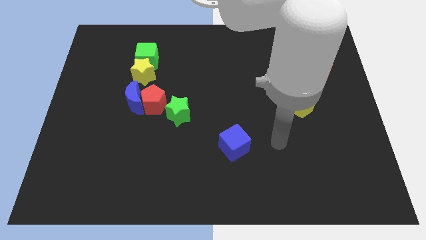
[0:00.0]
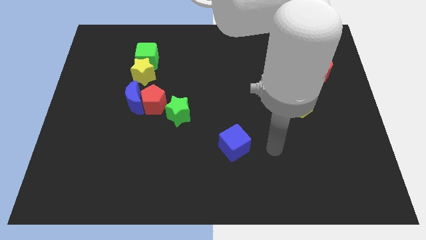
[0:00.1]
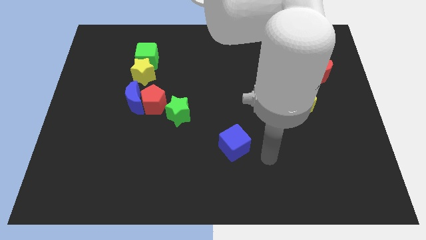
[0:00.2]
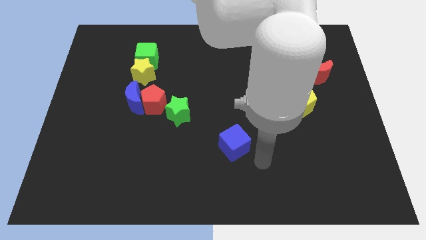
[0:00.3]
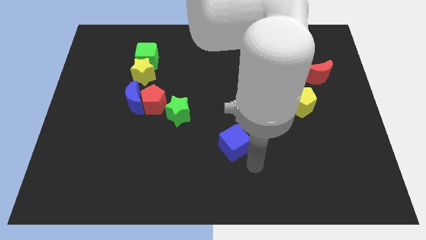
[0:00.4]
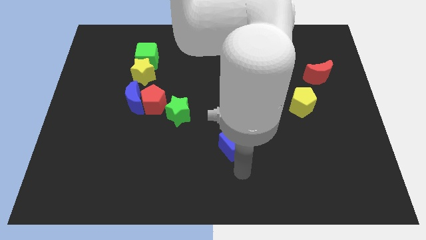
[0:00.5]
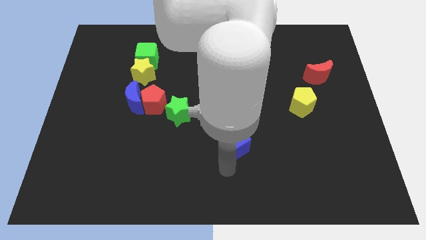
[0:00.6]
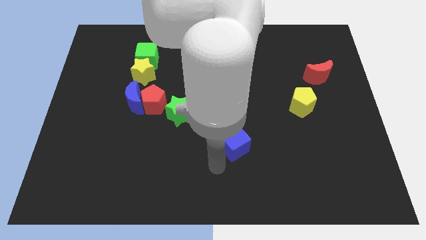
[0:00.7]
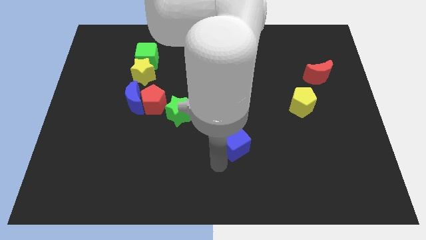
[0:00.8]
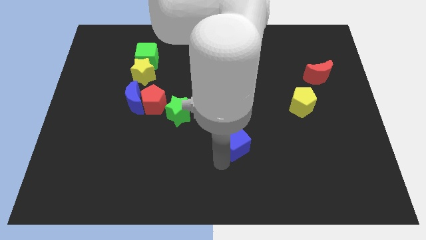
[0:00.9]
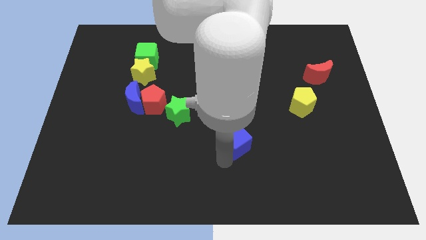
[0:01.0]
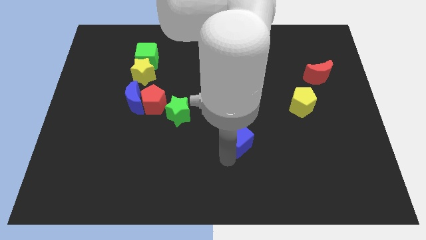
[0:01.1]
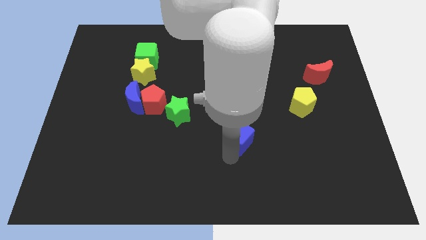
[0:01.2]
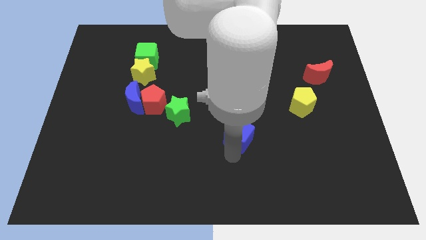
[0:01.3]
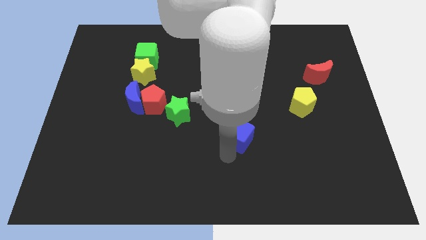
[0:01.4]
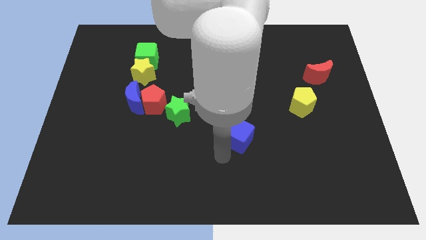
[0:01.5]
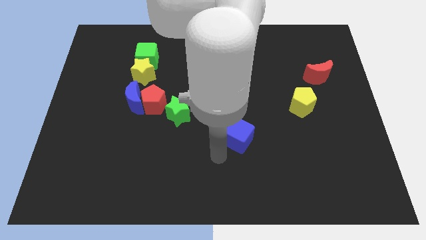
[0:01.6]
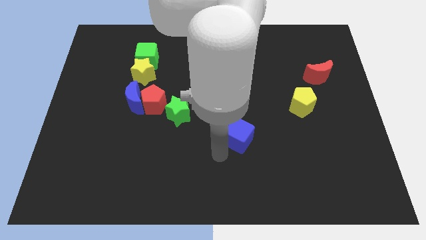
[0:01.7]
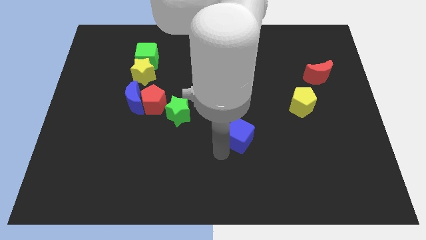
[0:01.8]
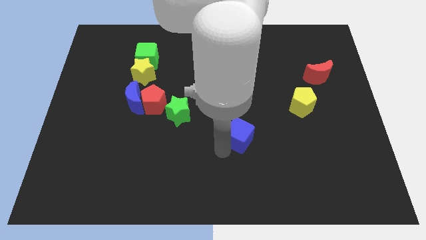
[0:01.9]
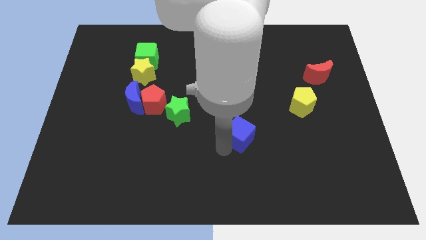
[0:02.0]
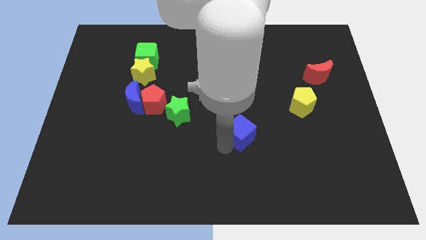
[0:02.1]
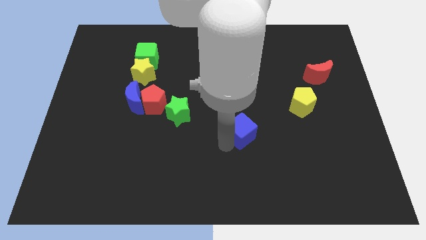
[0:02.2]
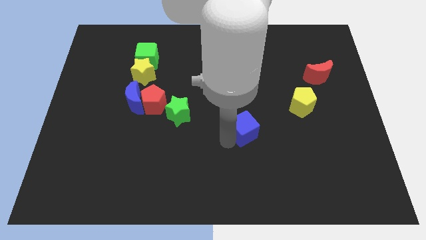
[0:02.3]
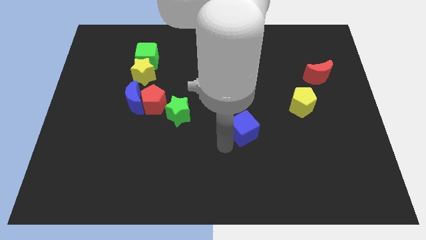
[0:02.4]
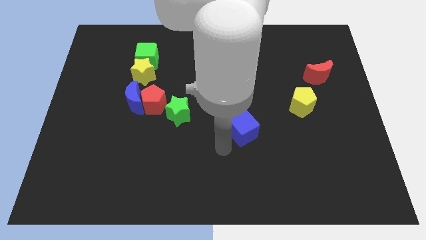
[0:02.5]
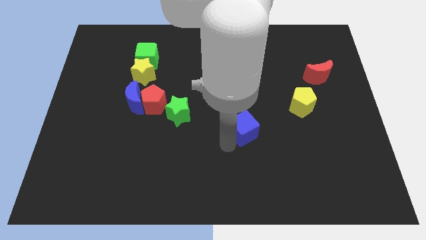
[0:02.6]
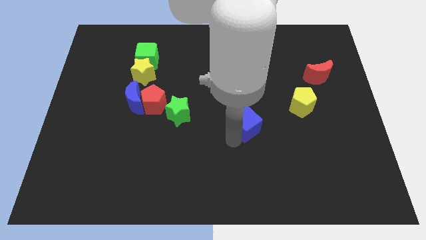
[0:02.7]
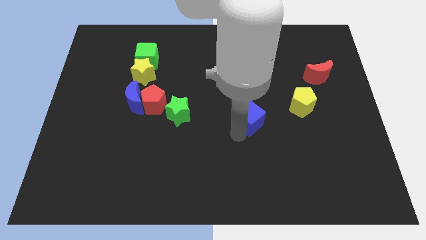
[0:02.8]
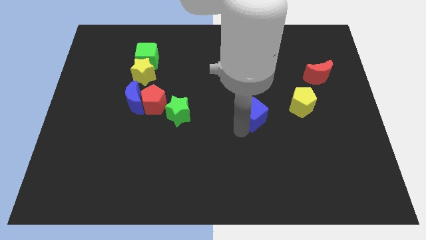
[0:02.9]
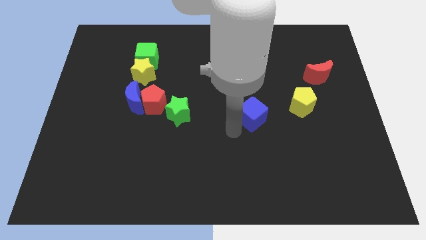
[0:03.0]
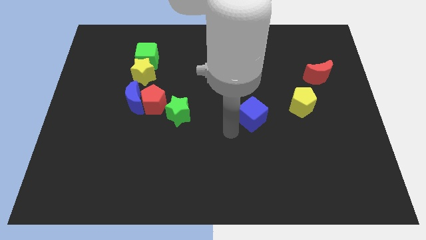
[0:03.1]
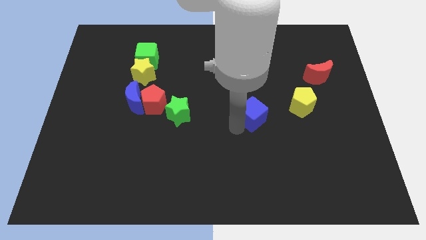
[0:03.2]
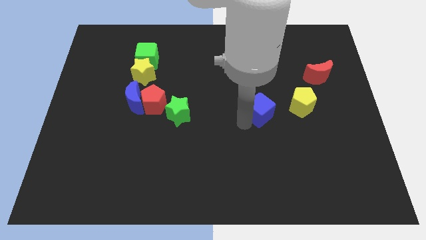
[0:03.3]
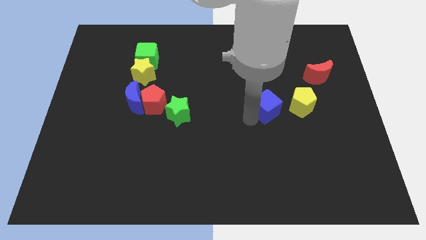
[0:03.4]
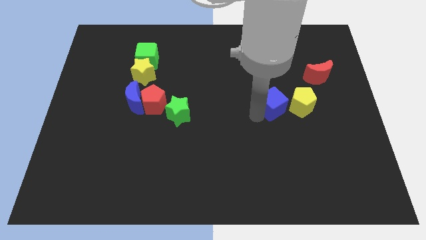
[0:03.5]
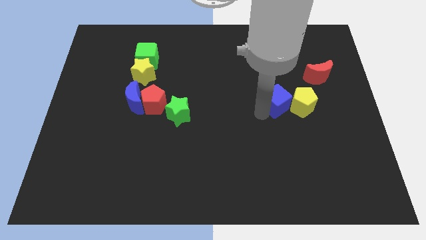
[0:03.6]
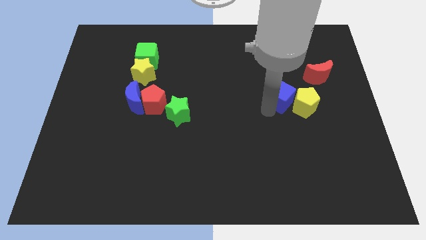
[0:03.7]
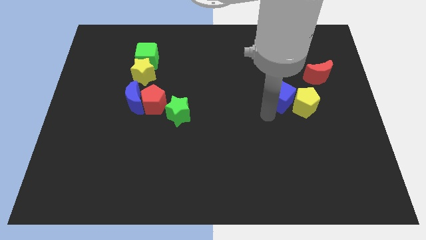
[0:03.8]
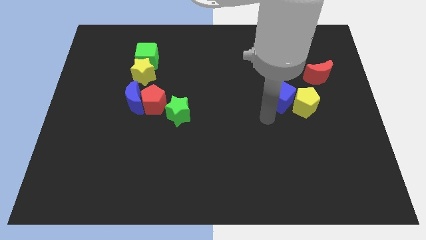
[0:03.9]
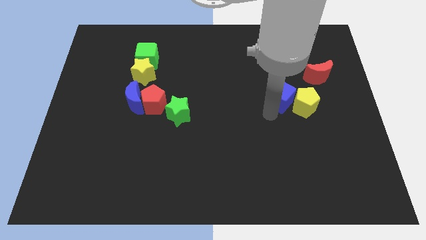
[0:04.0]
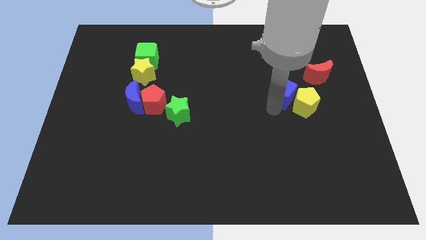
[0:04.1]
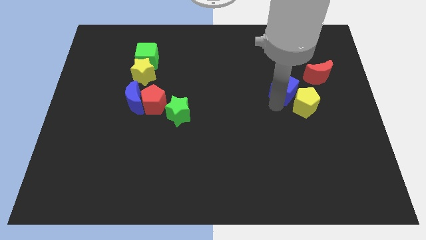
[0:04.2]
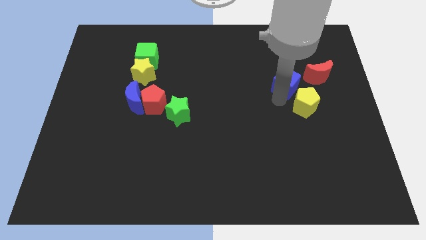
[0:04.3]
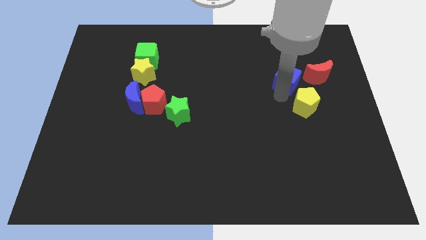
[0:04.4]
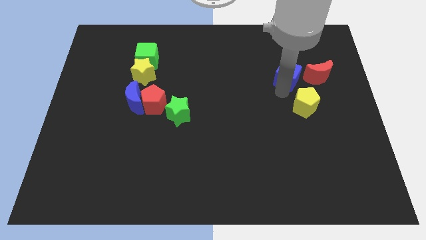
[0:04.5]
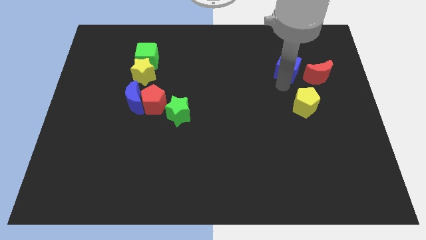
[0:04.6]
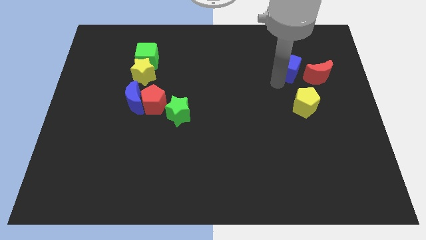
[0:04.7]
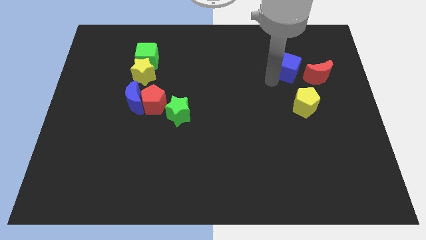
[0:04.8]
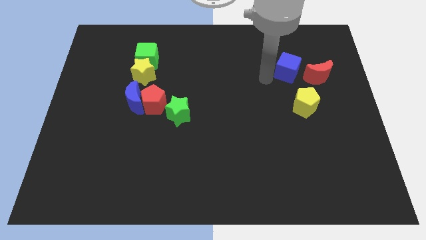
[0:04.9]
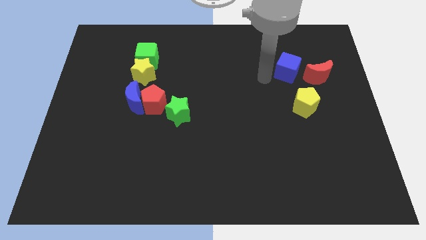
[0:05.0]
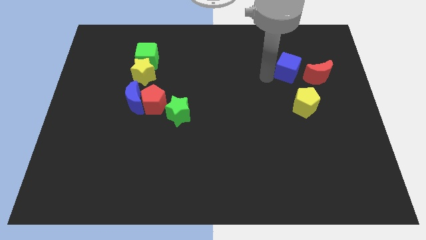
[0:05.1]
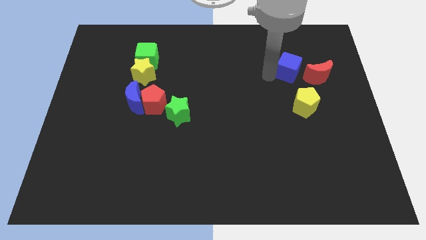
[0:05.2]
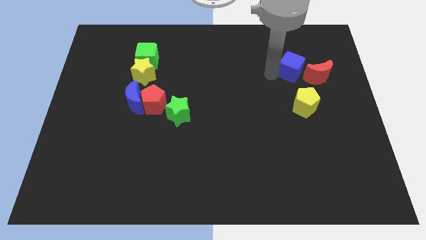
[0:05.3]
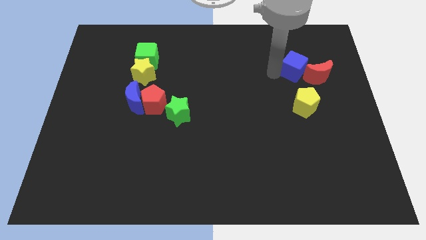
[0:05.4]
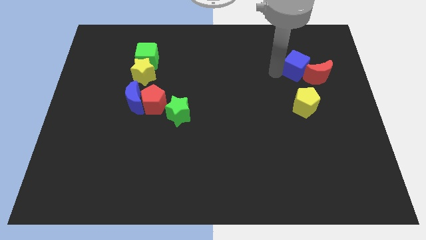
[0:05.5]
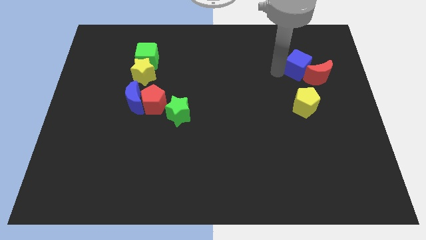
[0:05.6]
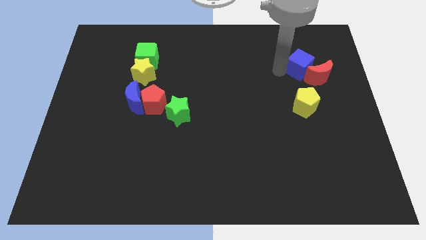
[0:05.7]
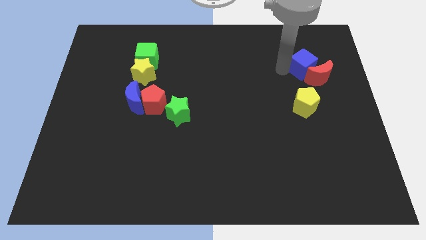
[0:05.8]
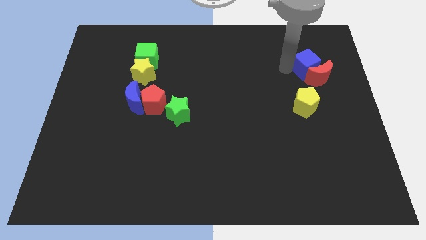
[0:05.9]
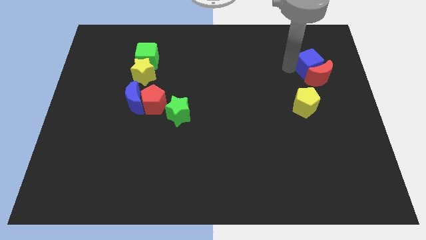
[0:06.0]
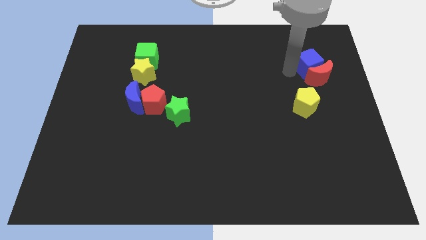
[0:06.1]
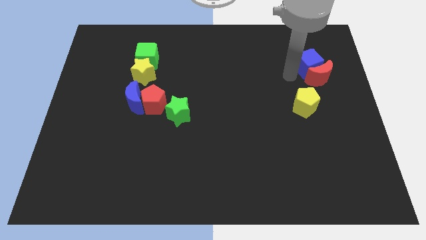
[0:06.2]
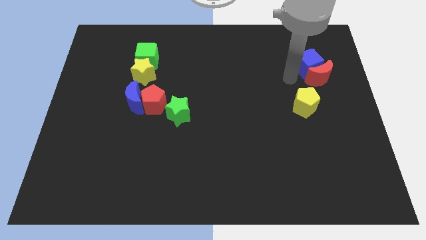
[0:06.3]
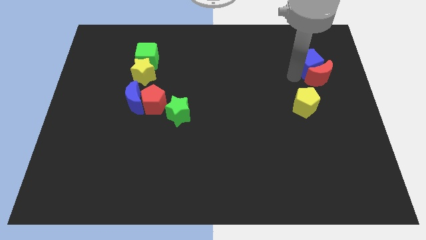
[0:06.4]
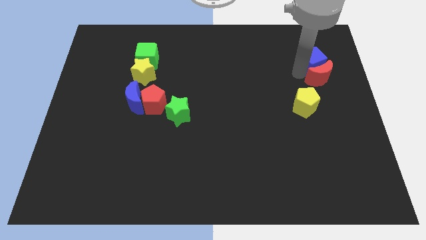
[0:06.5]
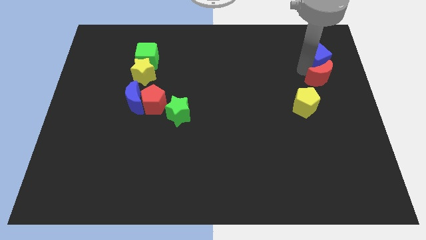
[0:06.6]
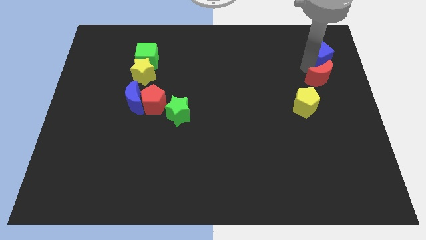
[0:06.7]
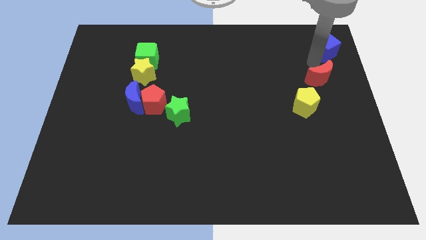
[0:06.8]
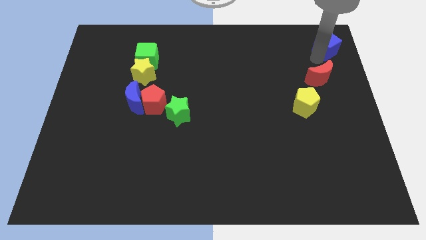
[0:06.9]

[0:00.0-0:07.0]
push the blue cube to the upper right corner

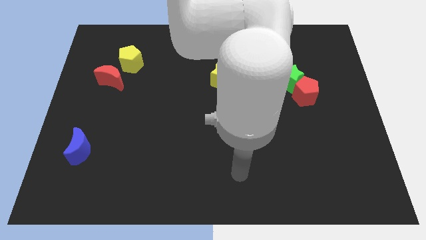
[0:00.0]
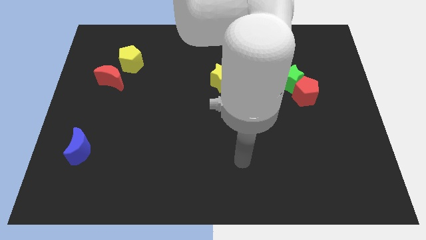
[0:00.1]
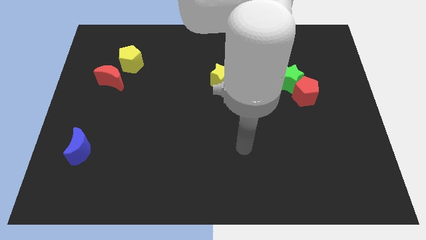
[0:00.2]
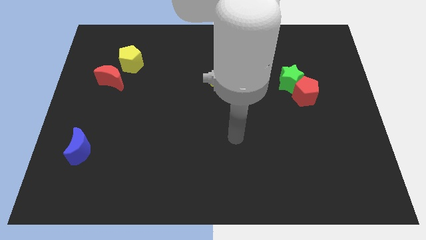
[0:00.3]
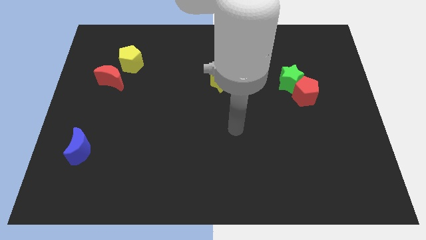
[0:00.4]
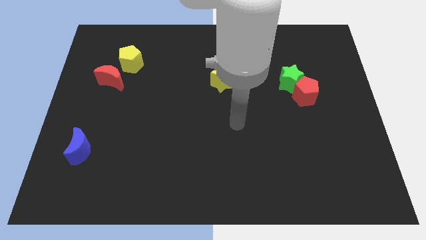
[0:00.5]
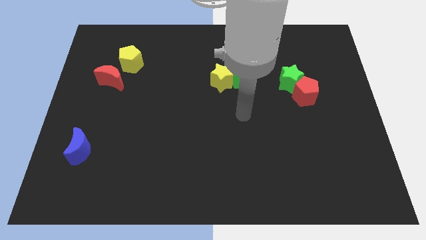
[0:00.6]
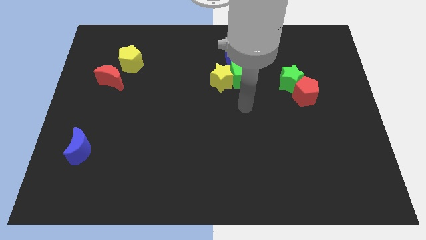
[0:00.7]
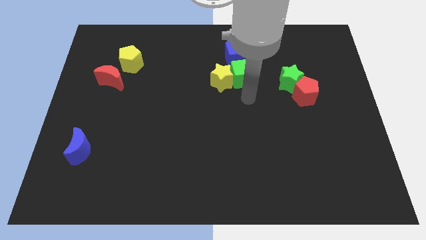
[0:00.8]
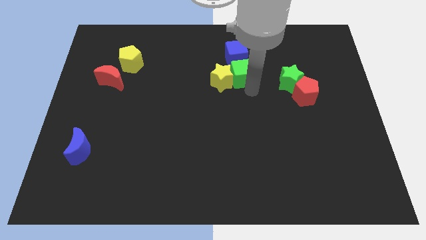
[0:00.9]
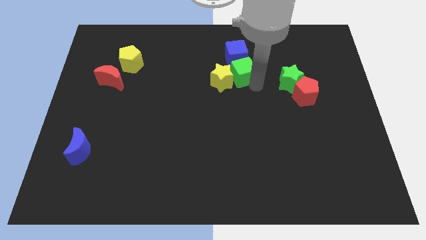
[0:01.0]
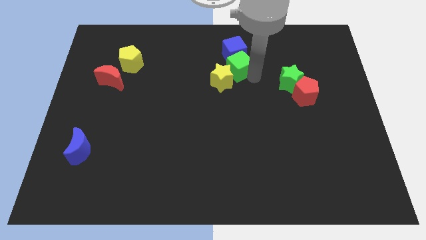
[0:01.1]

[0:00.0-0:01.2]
move the blue cube to the top side
